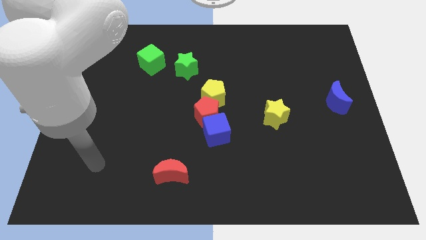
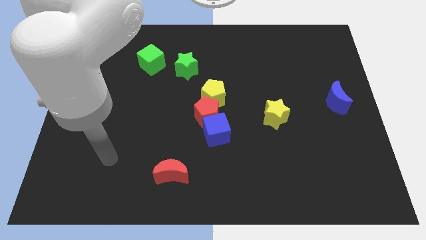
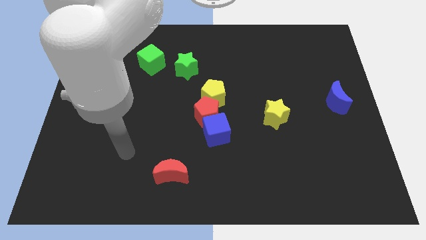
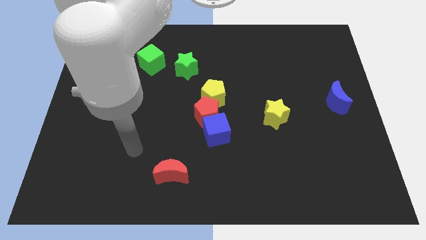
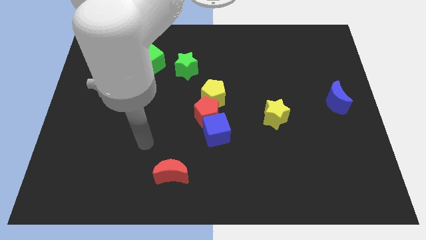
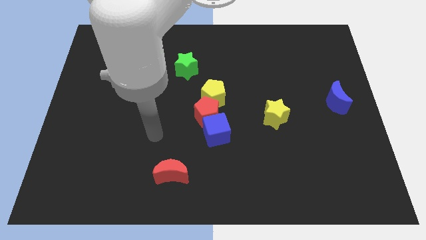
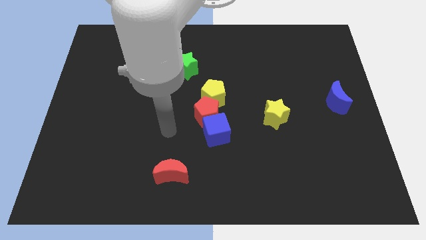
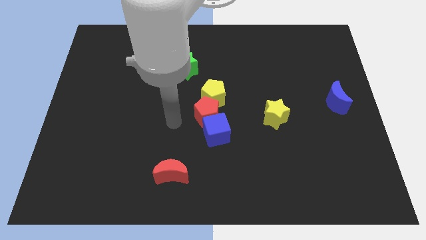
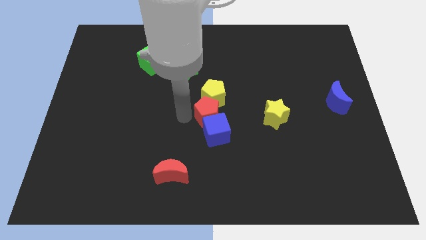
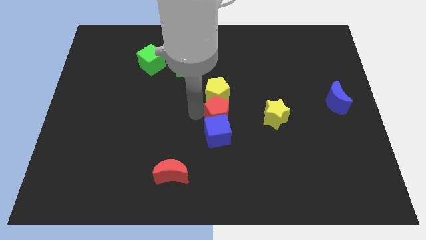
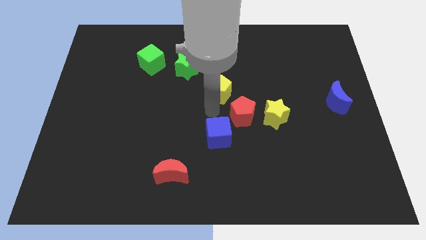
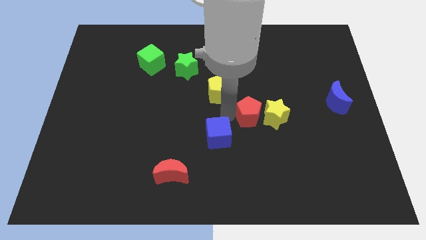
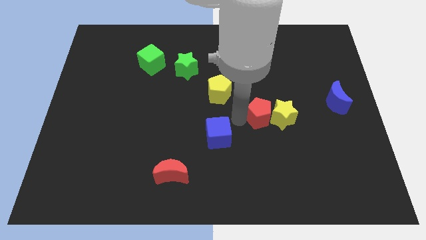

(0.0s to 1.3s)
separate the blue cube from the red pentagon

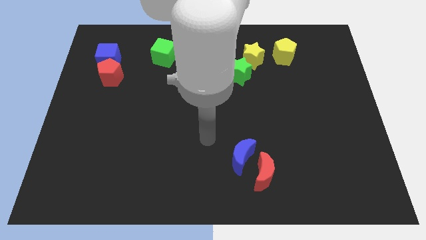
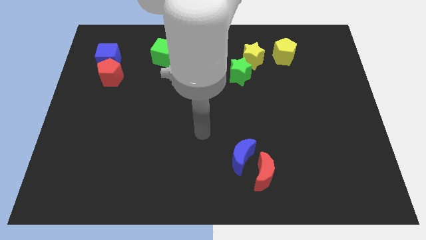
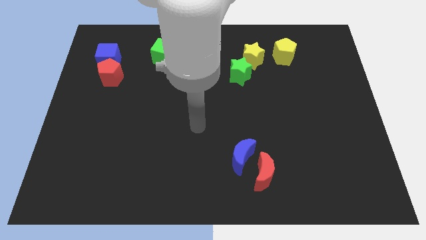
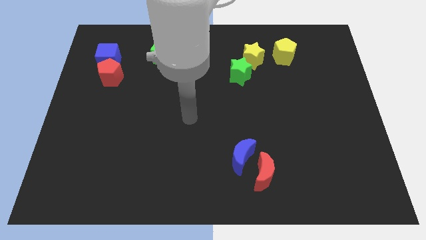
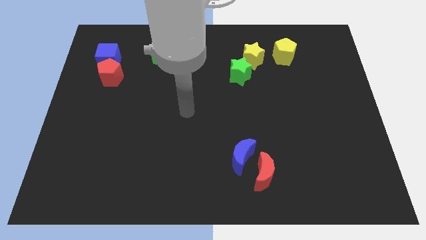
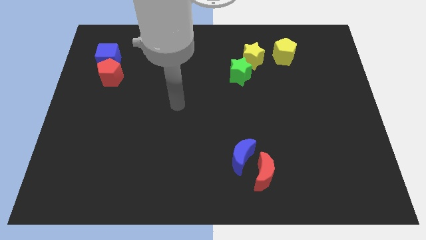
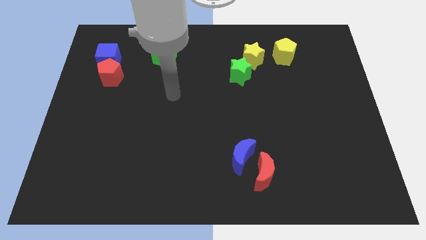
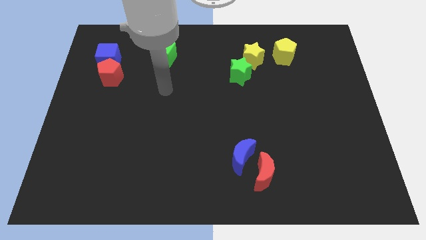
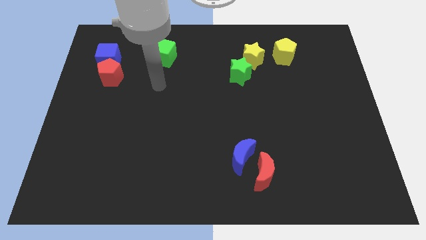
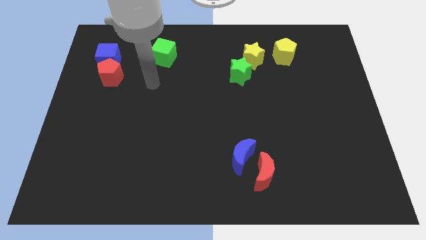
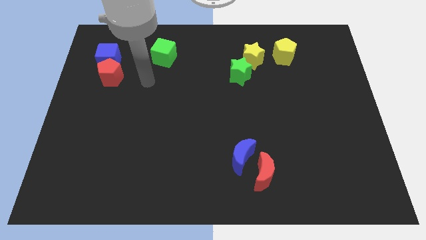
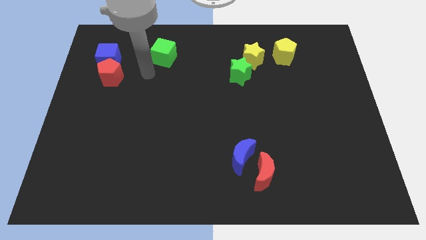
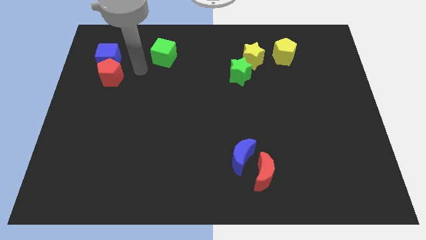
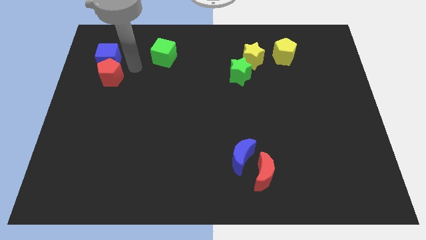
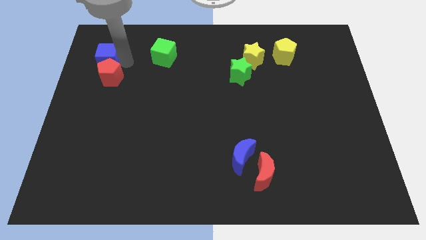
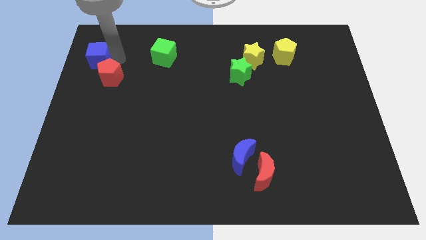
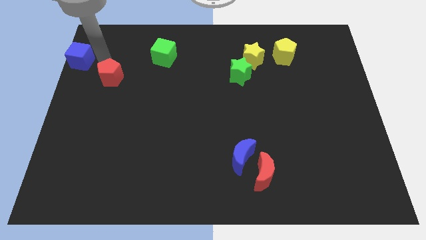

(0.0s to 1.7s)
separate the red pentagon from the blue cube

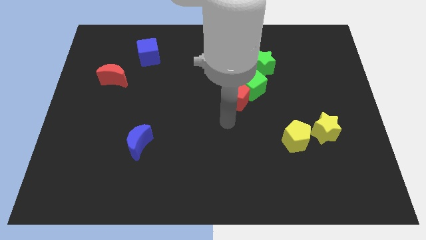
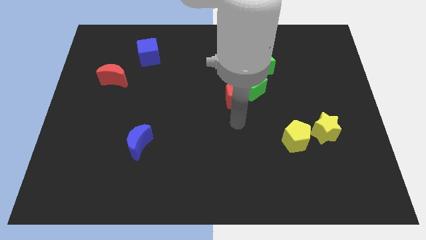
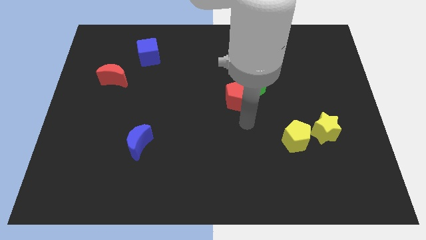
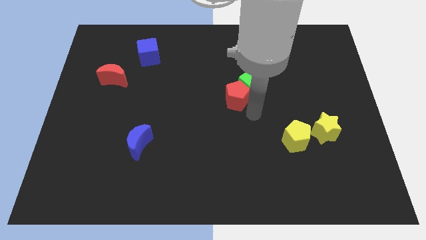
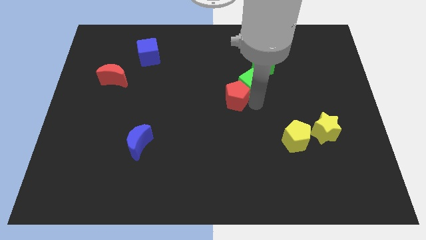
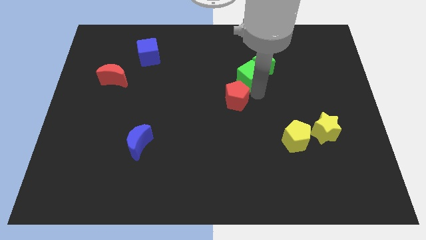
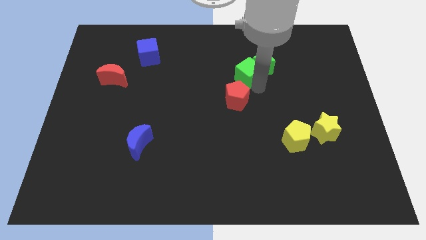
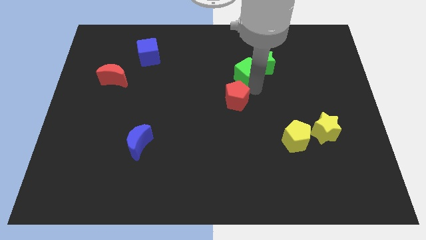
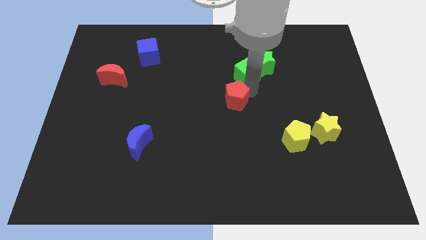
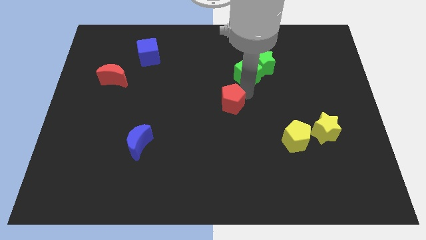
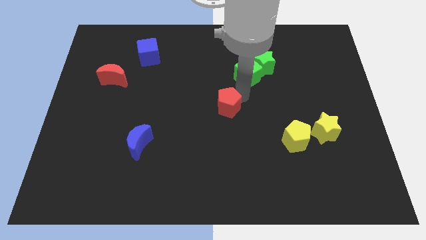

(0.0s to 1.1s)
move the red pentagon away from the green cube

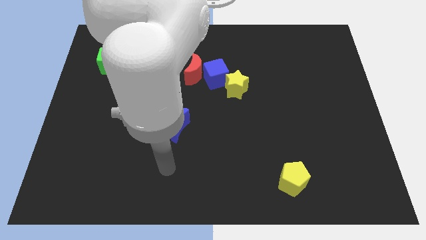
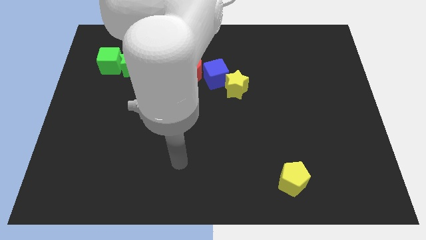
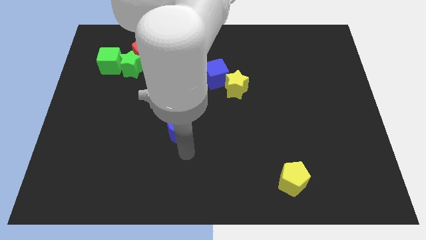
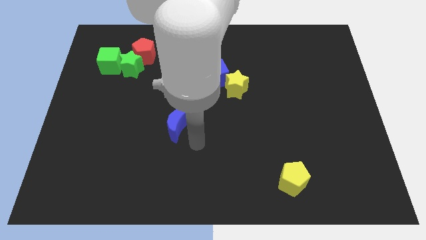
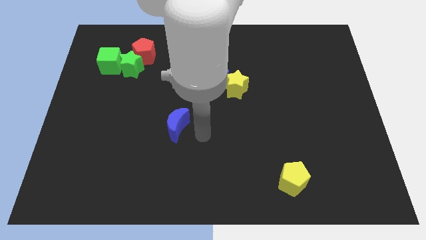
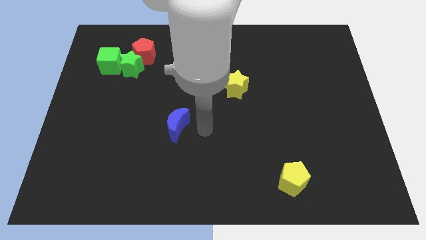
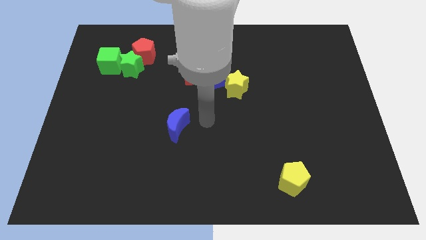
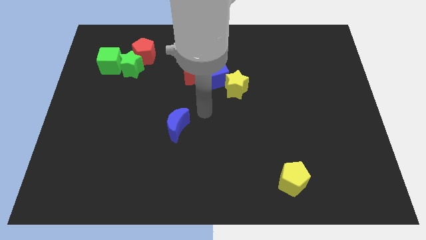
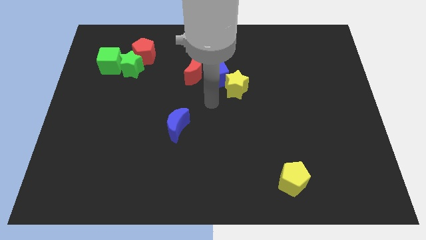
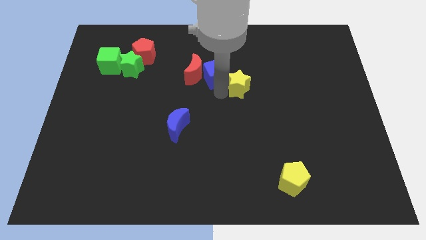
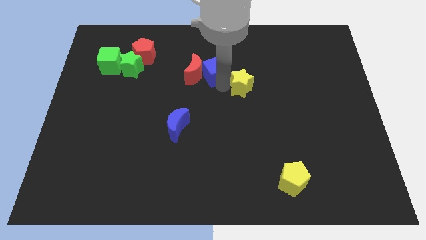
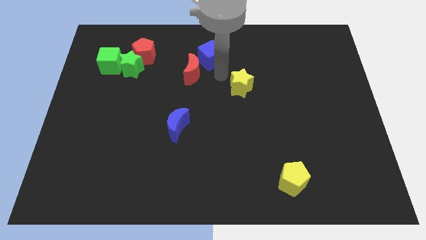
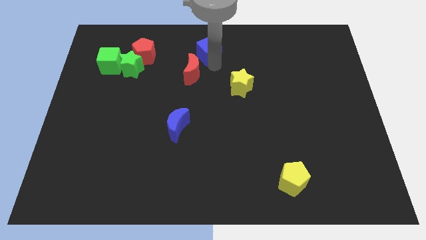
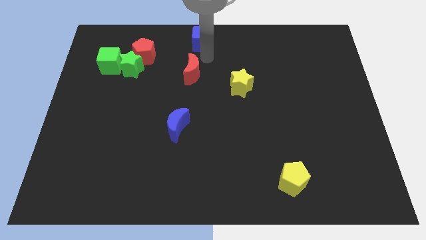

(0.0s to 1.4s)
separate the red moon from the blue cube

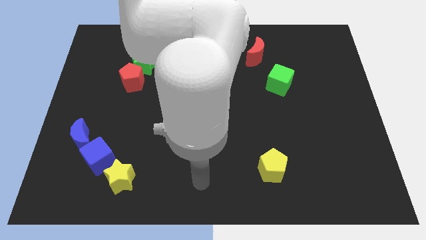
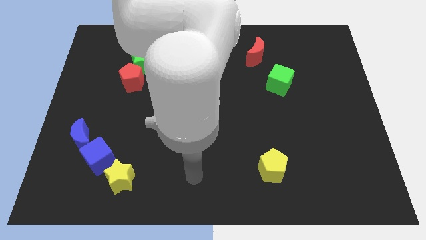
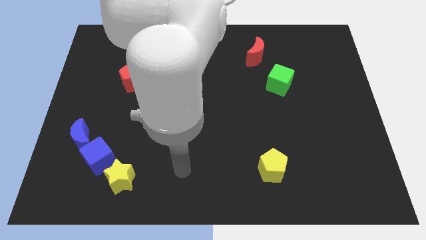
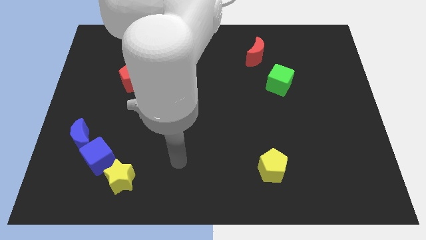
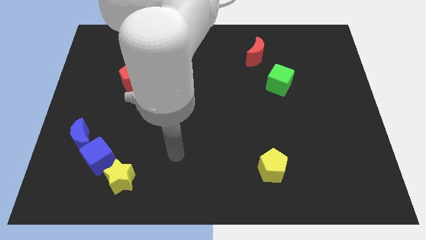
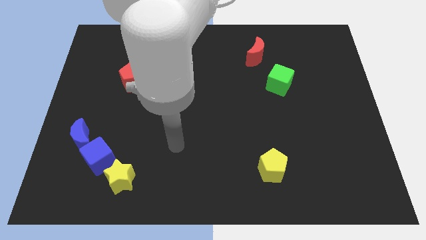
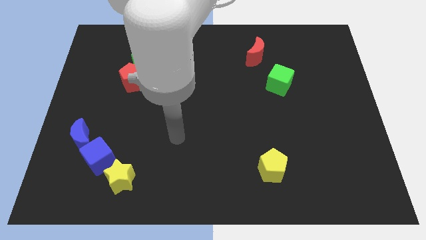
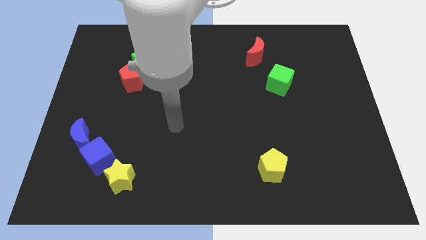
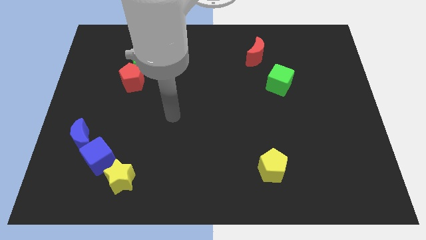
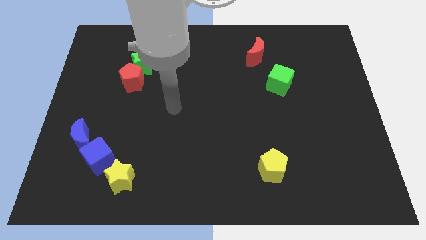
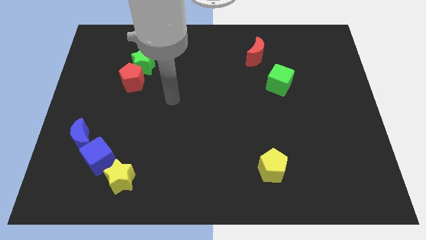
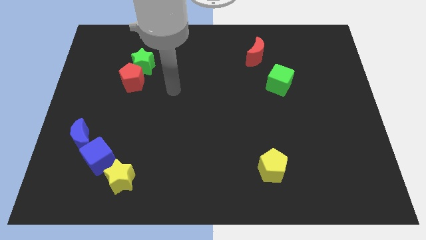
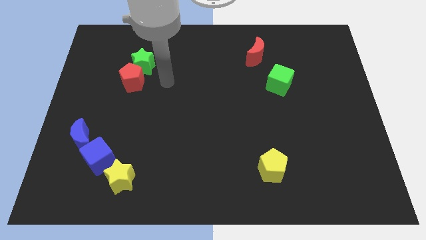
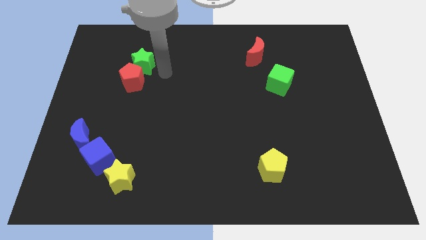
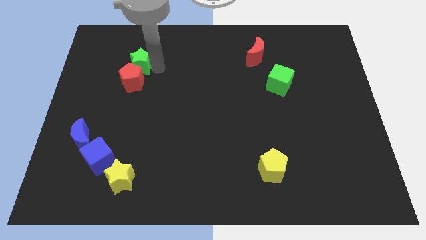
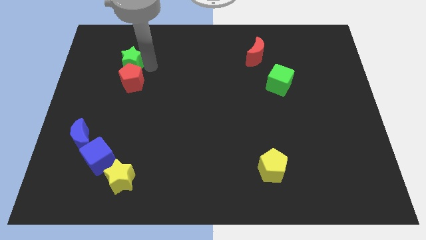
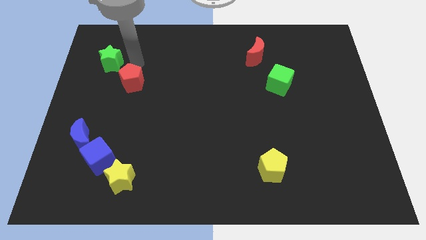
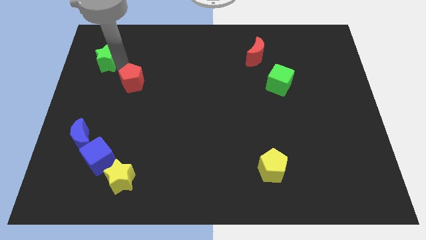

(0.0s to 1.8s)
separate the red pentagon from the green star

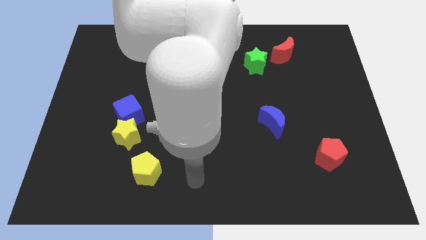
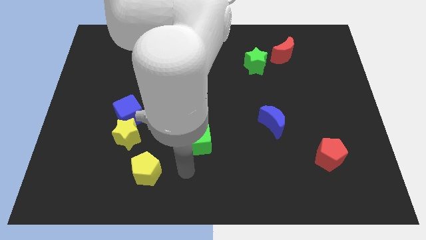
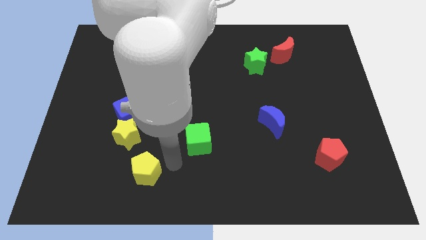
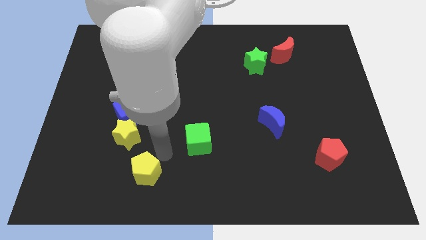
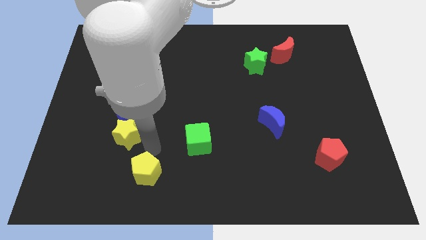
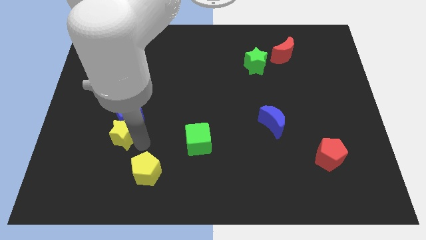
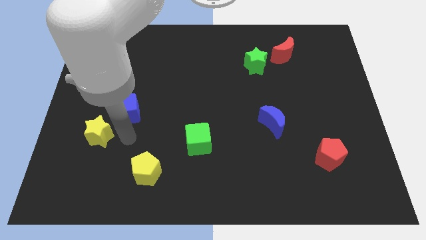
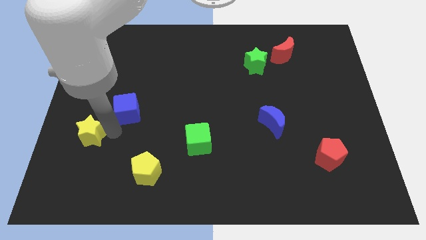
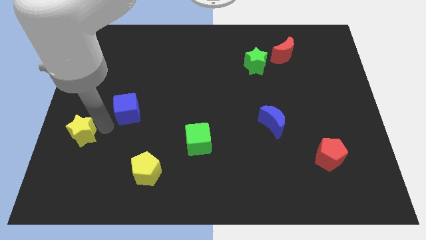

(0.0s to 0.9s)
move the blue cube away from the yellow star

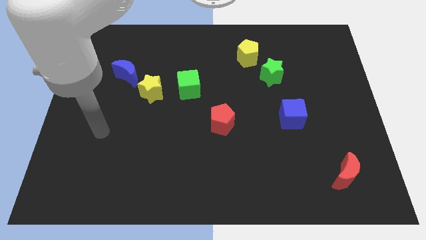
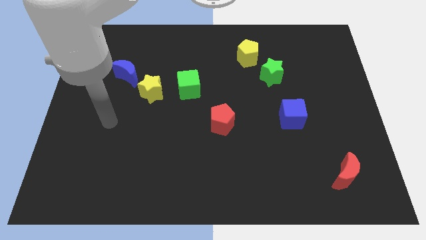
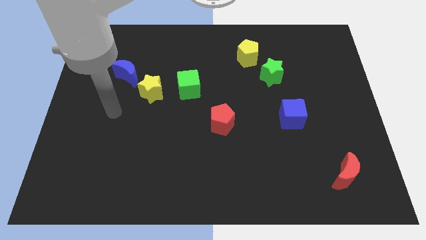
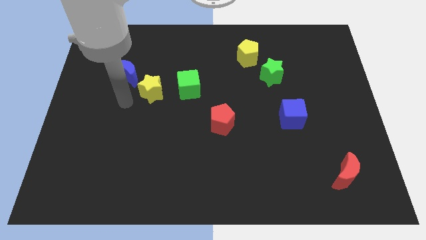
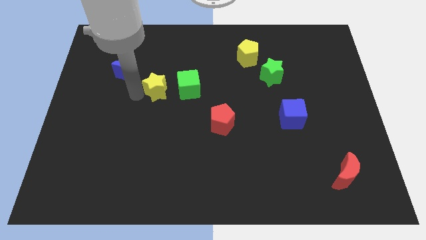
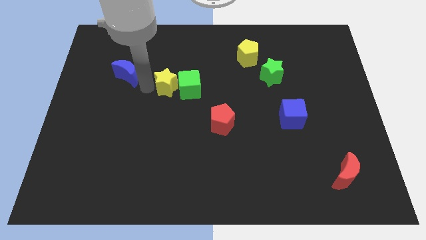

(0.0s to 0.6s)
pull the blue moon apart from the yellow star

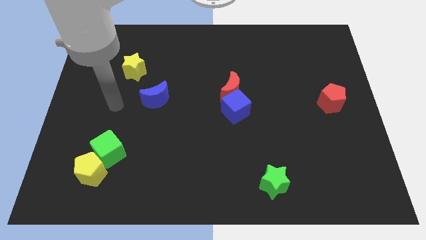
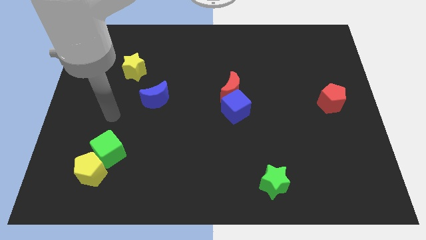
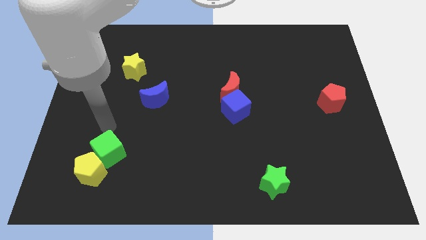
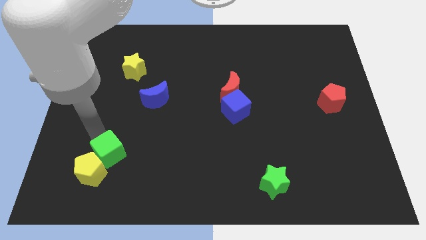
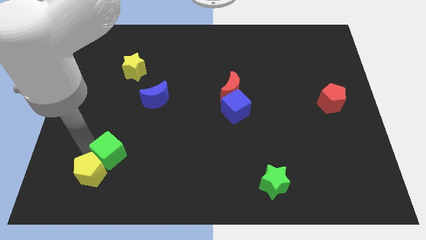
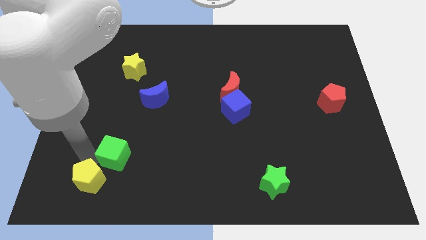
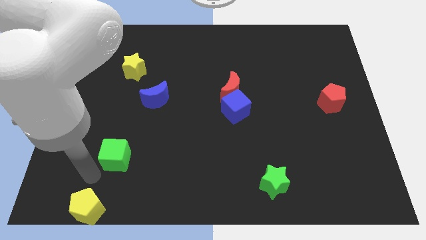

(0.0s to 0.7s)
move the green cube away from the yellow pentagon
